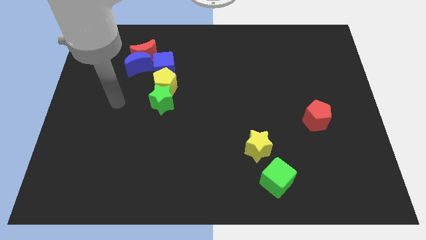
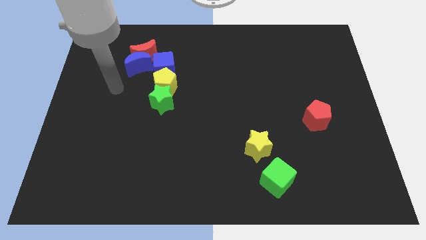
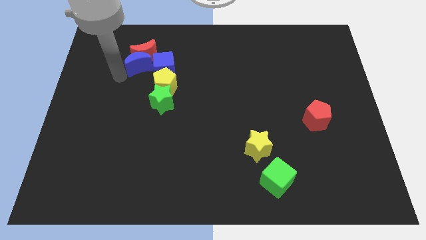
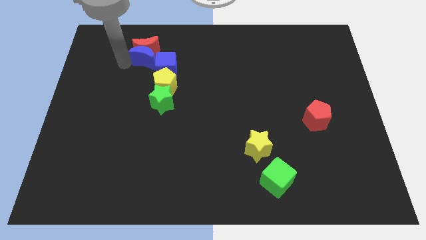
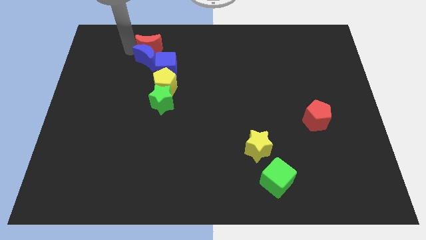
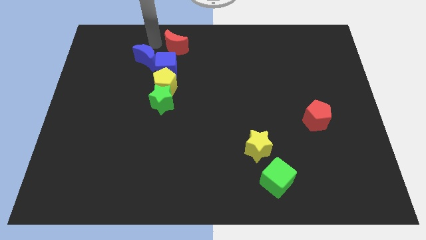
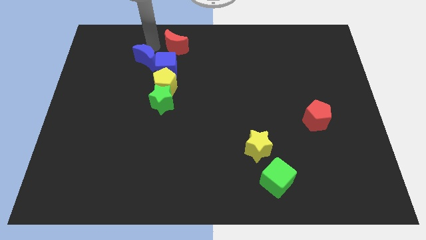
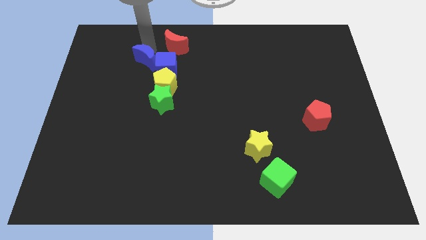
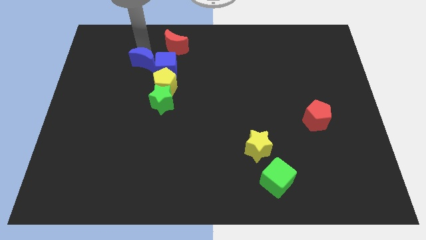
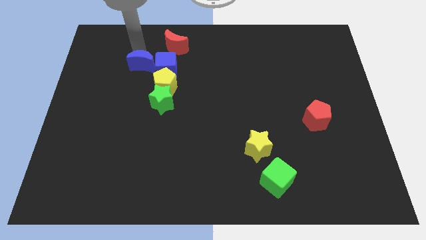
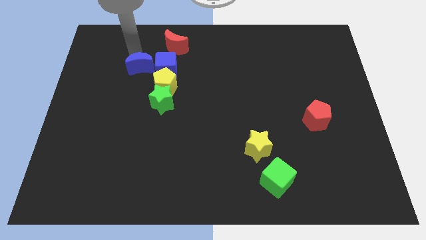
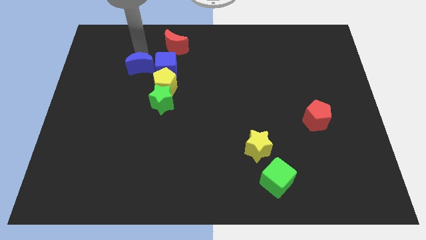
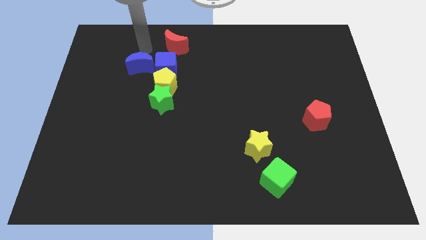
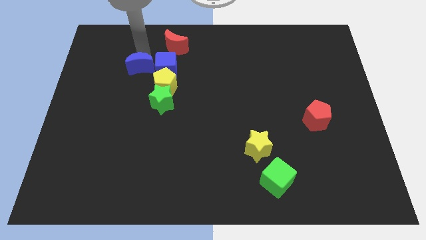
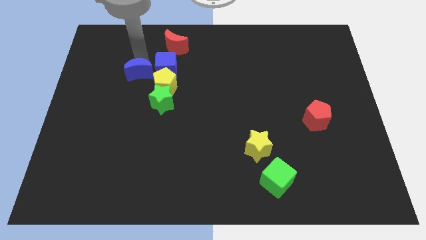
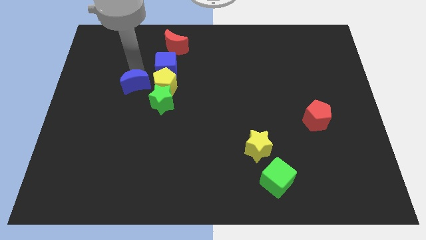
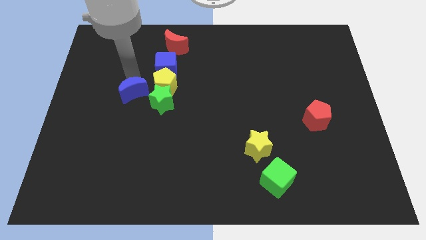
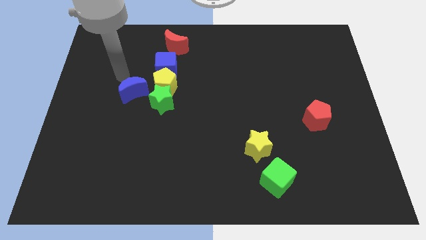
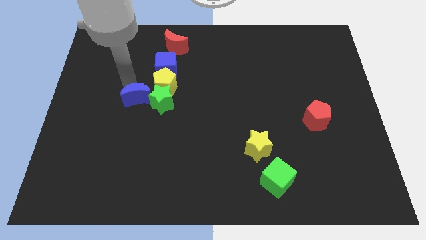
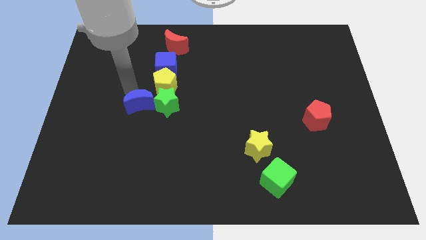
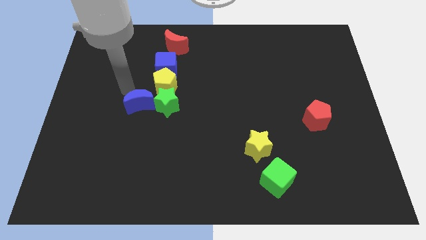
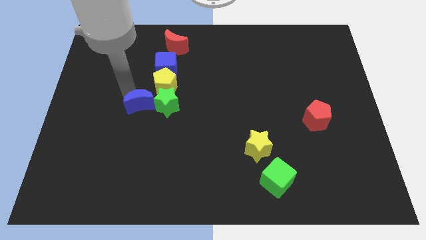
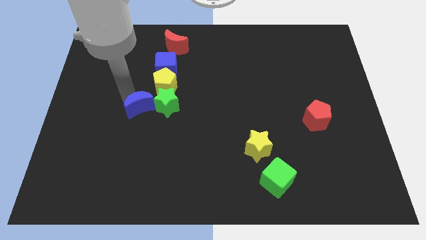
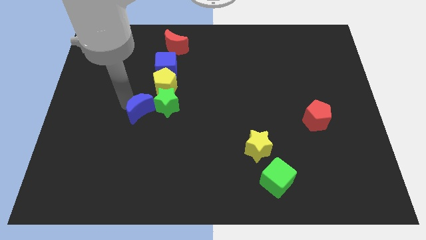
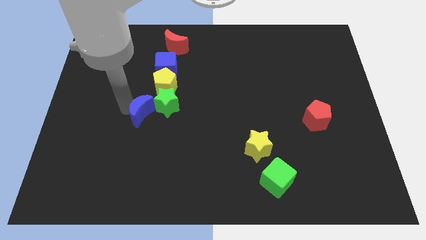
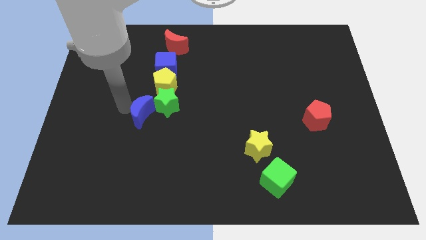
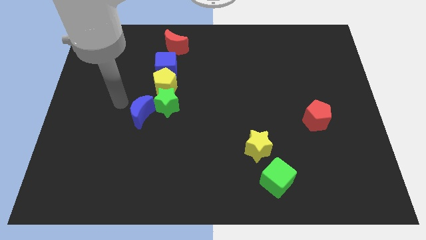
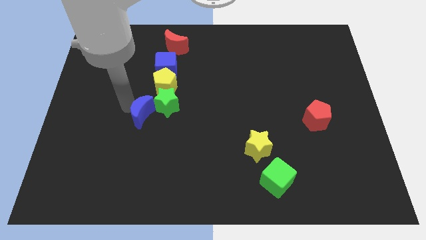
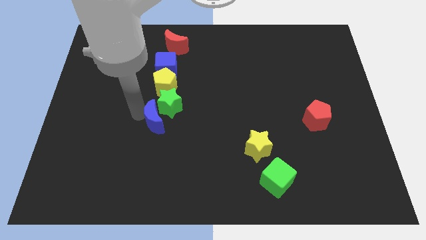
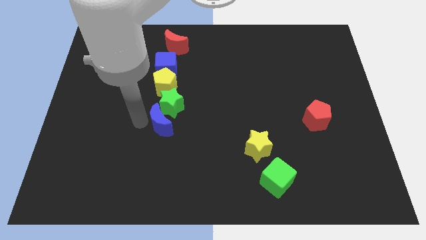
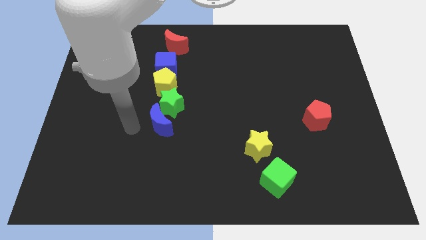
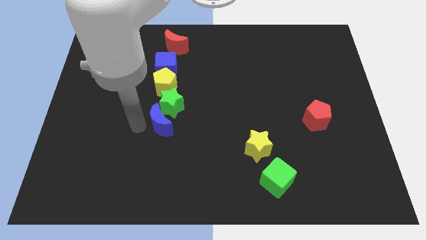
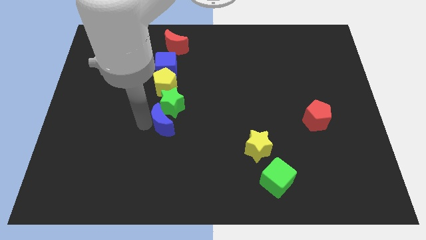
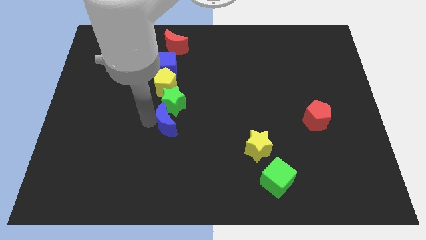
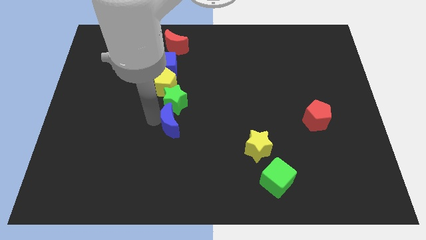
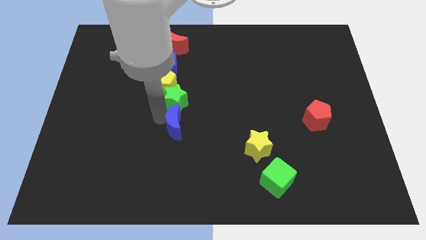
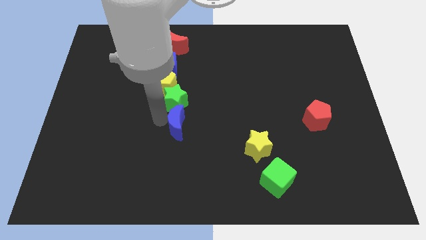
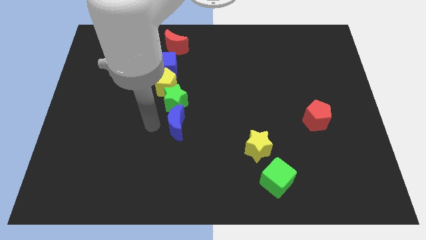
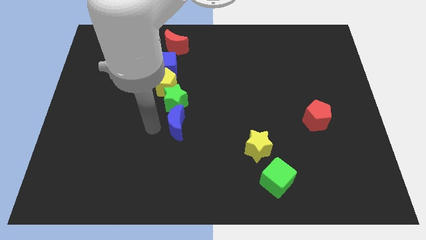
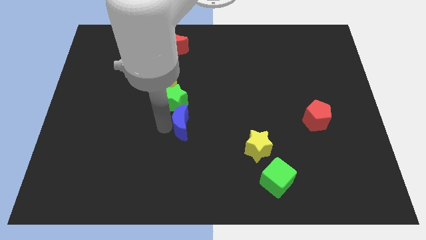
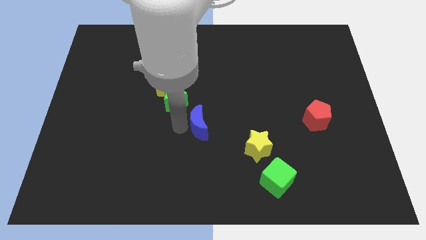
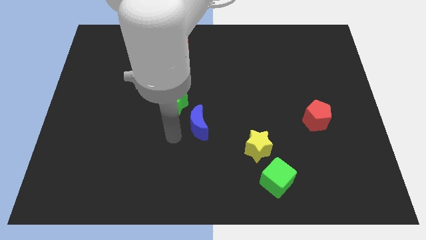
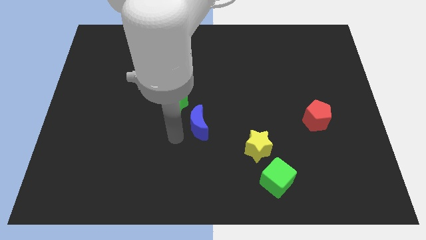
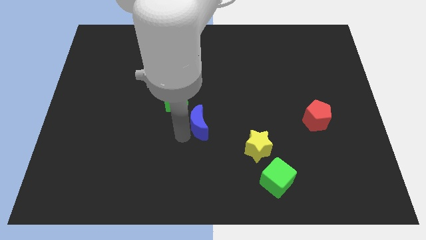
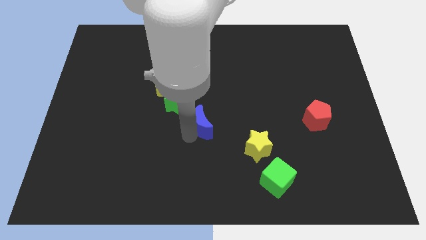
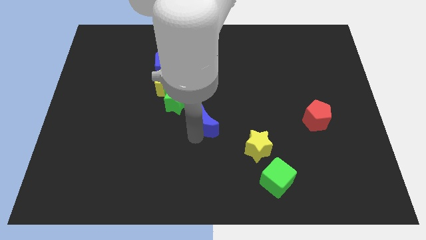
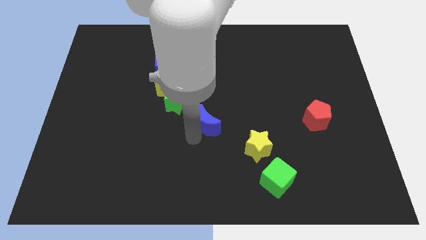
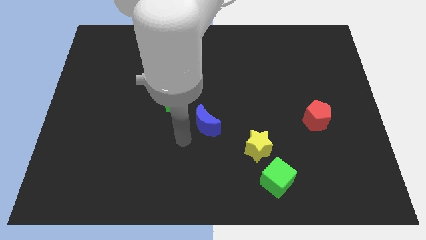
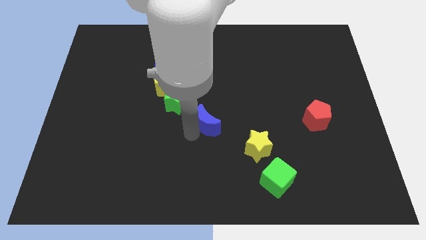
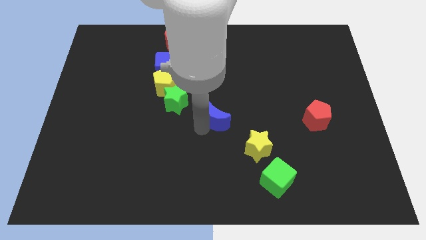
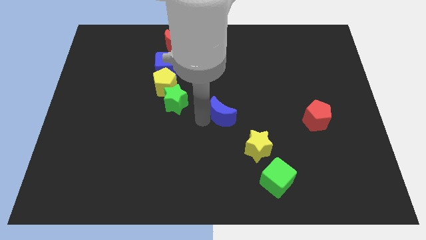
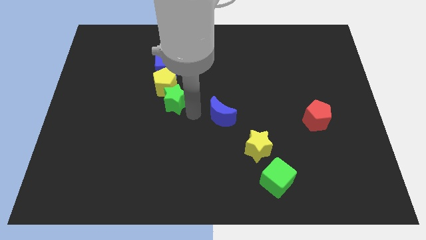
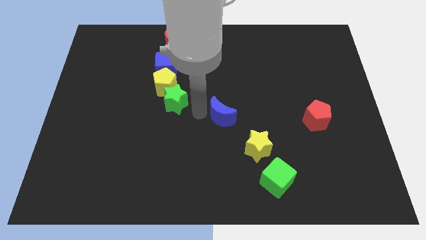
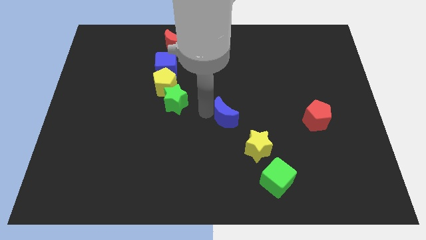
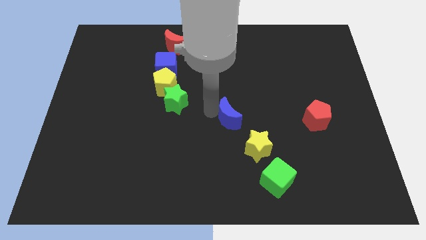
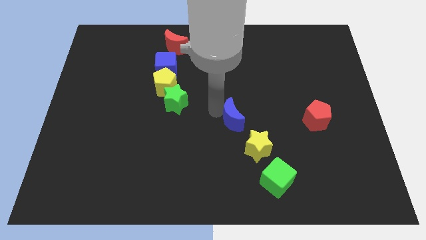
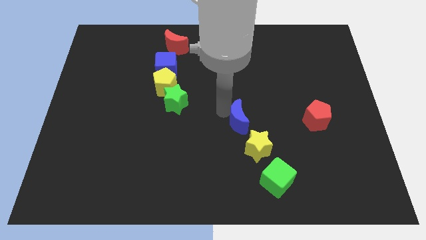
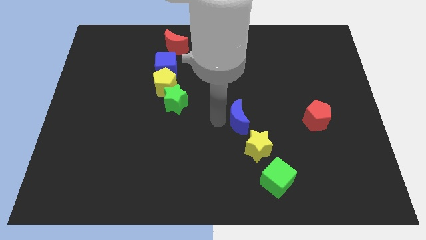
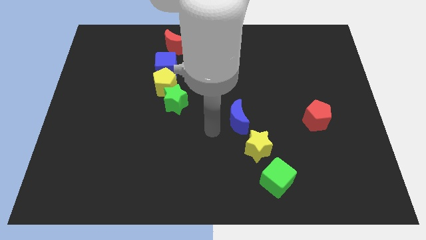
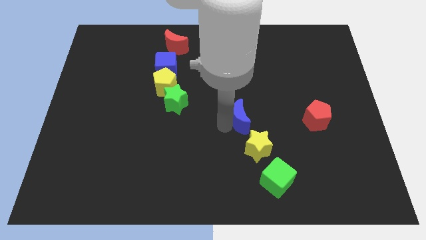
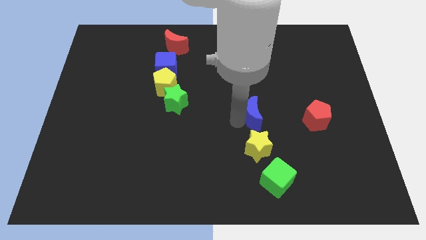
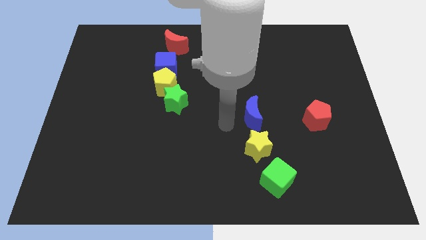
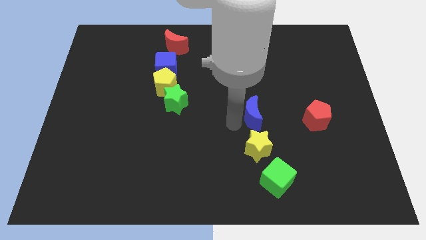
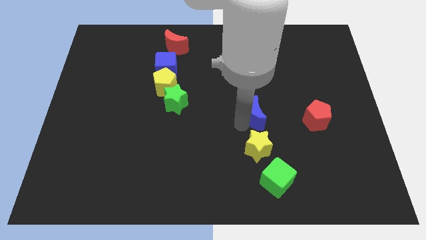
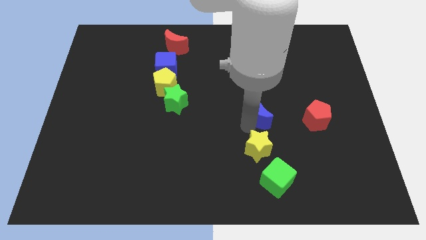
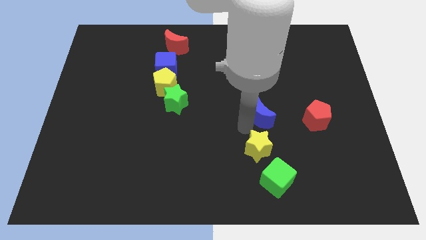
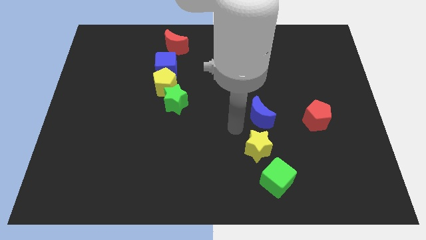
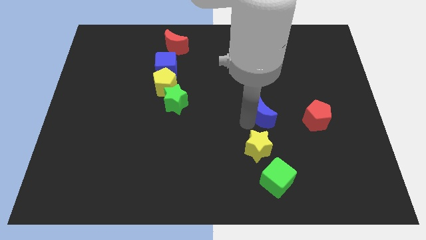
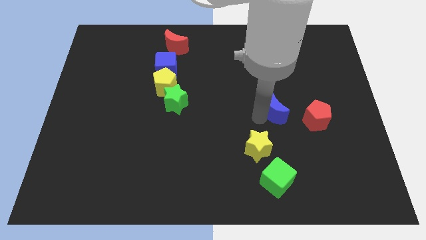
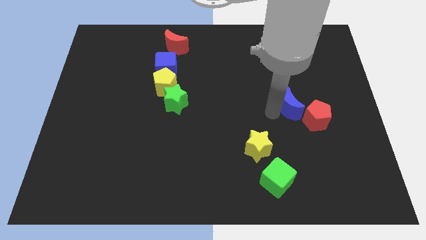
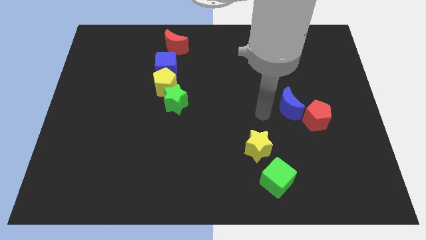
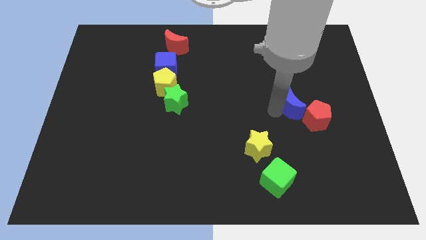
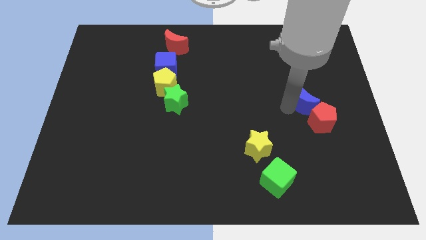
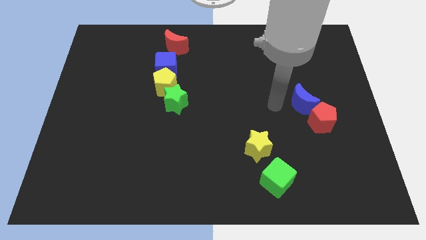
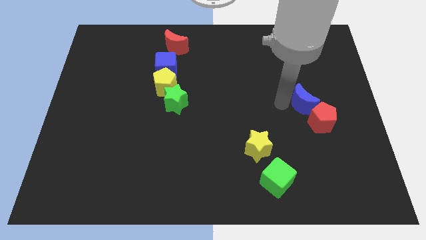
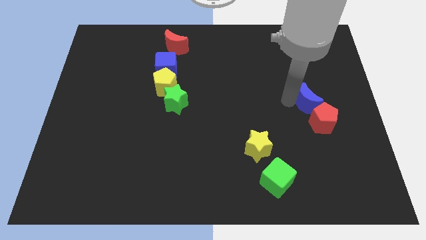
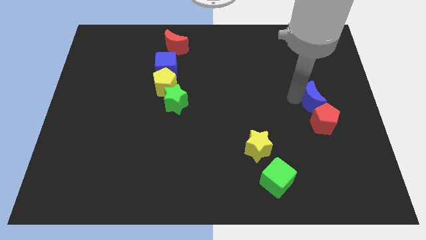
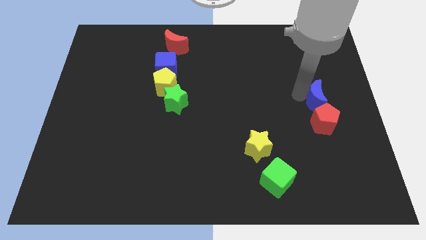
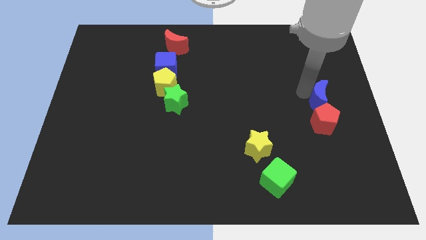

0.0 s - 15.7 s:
move the blue moon to the right side of the board
